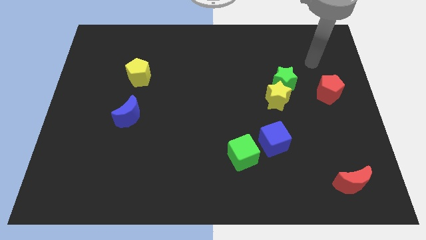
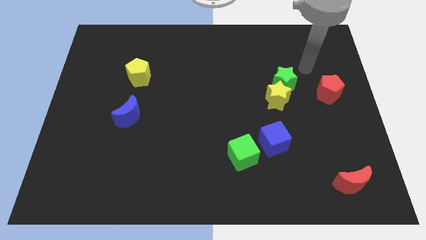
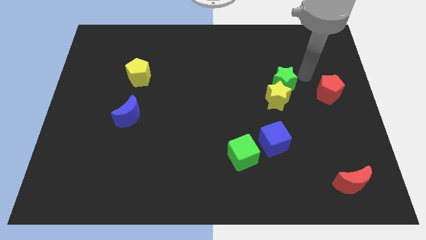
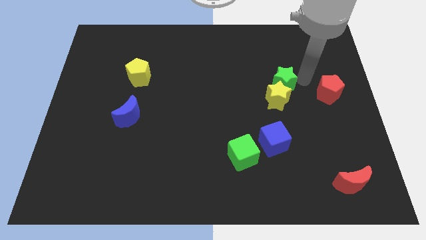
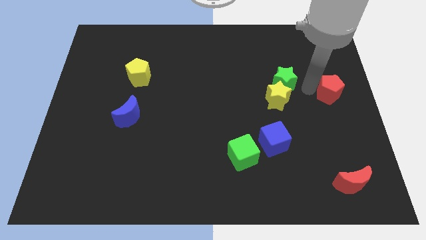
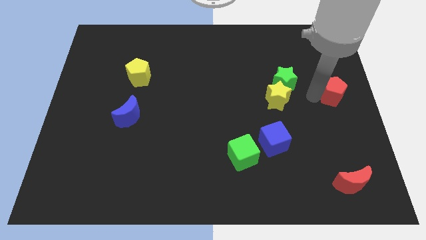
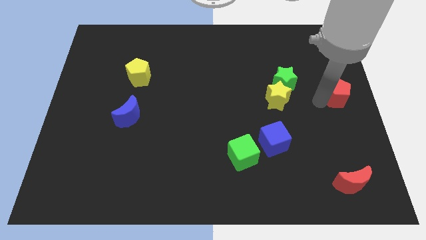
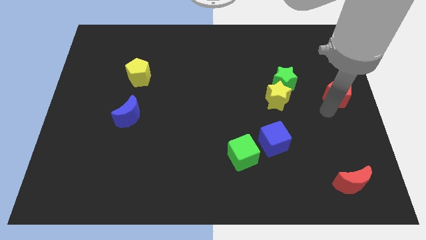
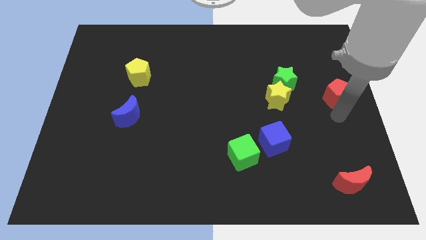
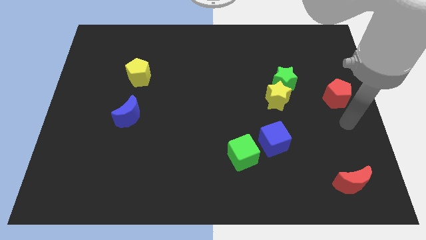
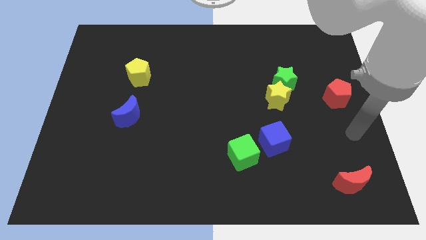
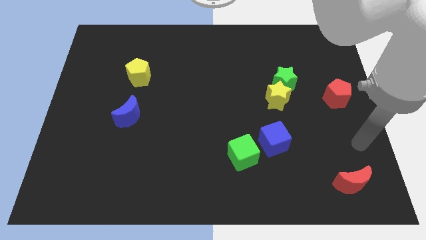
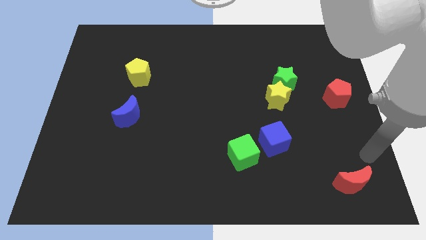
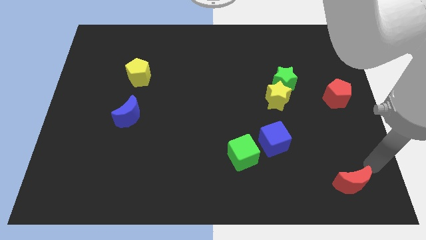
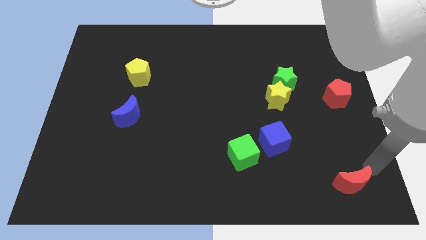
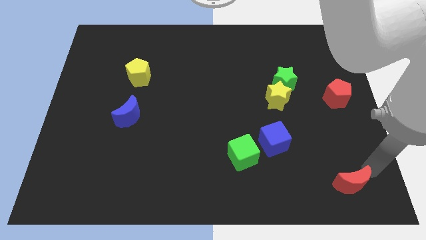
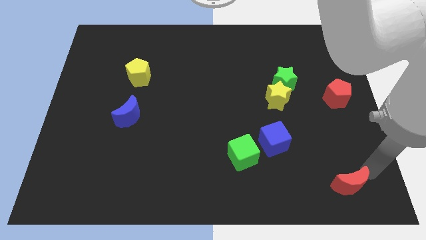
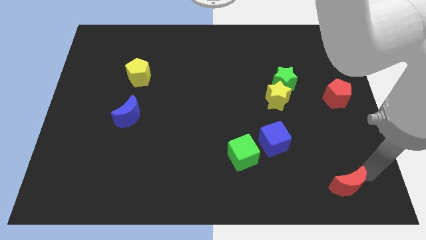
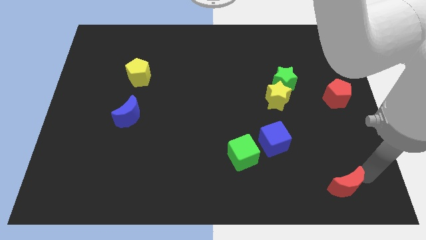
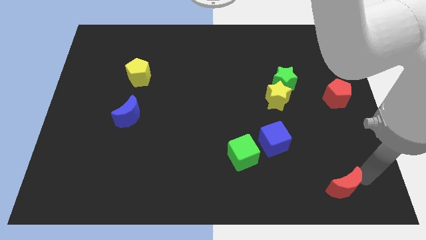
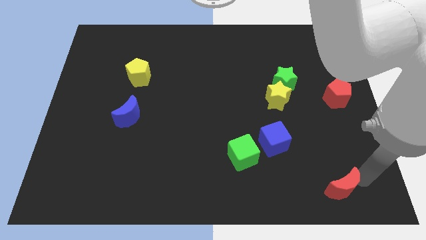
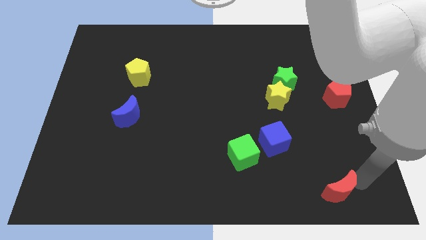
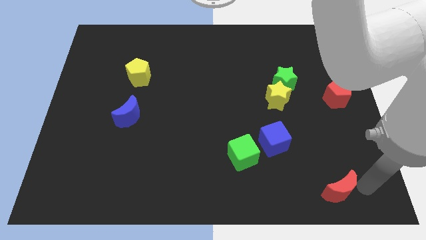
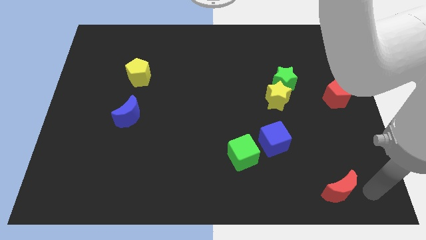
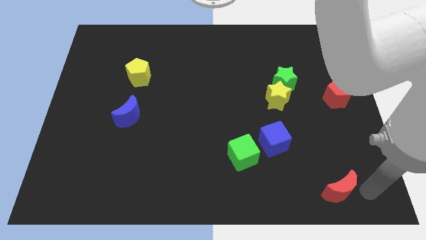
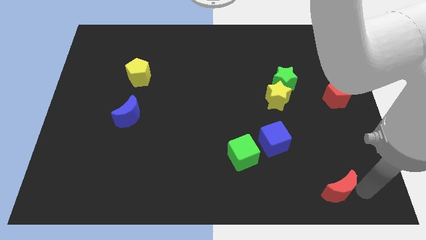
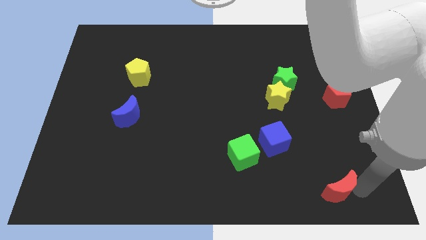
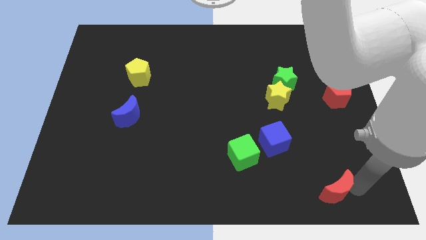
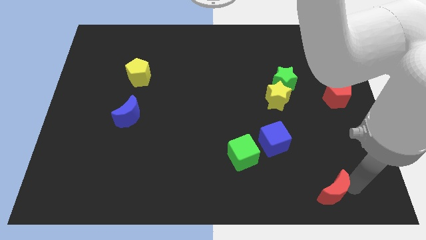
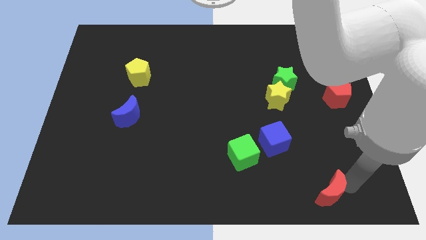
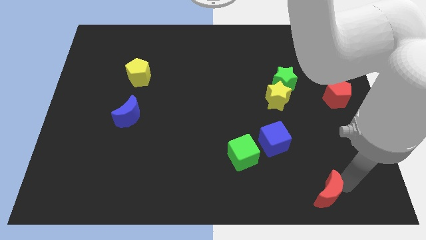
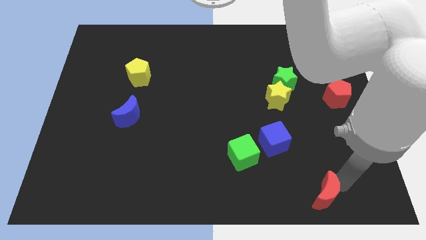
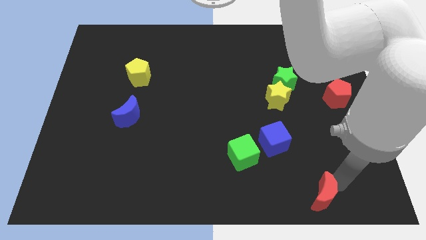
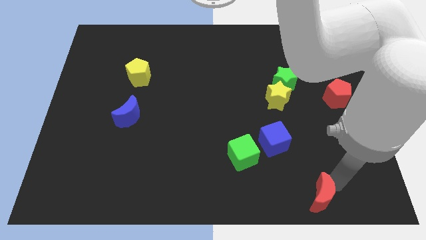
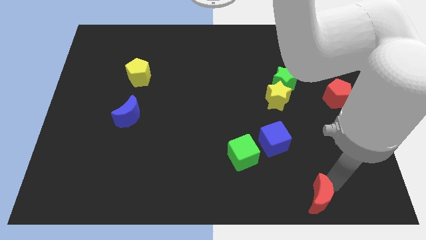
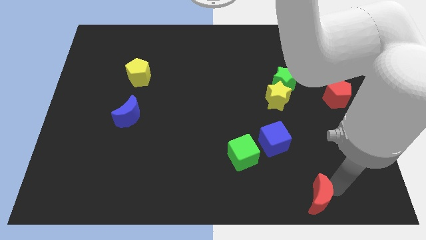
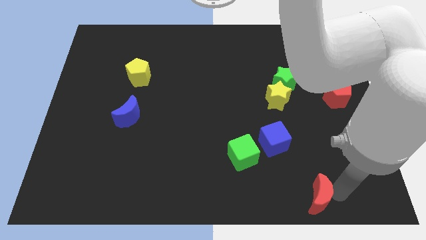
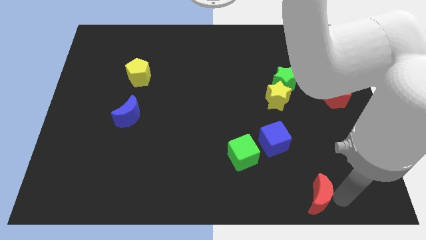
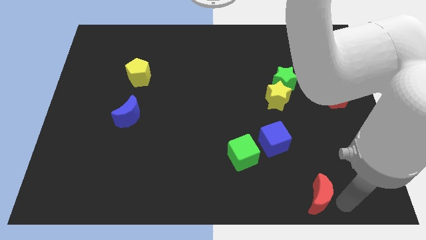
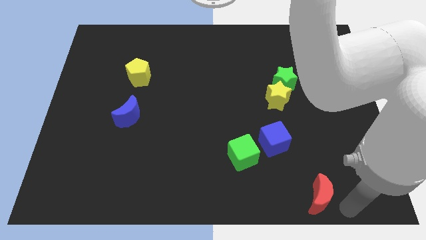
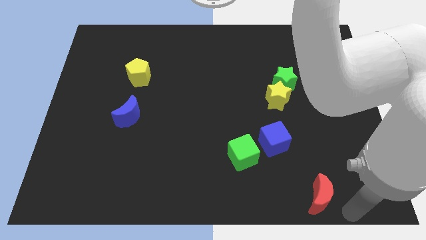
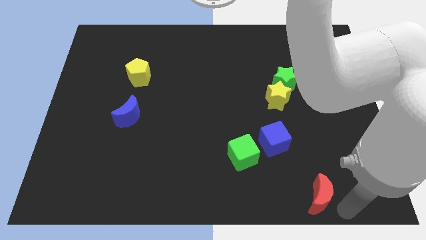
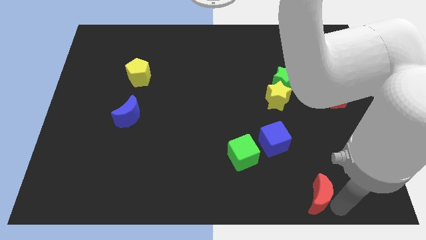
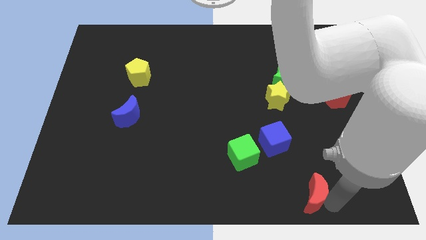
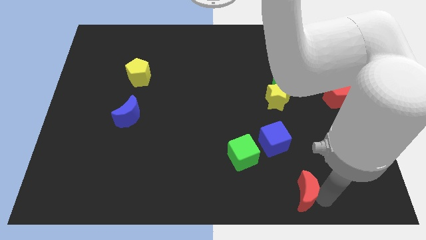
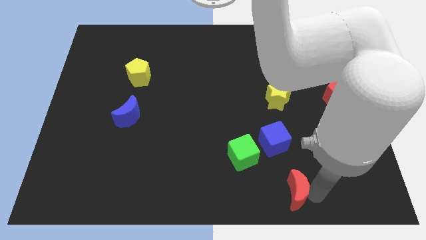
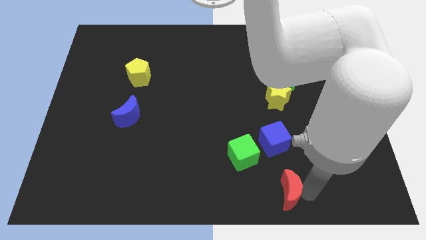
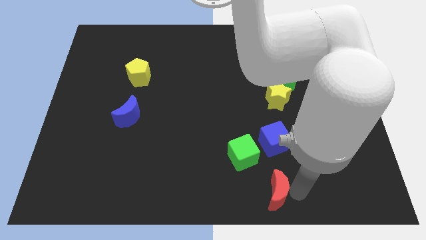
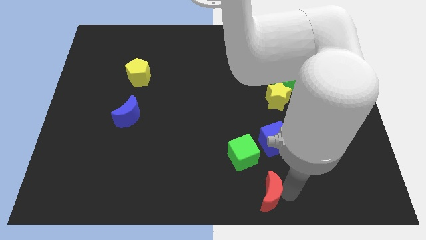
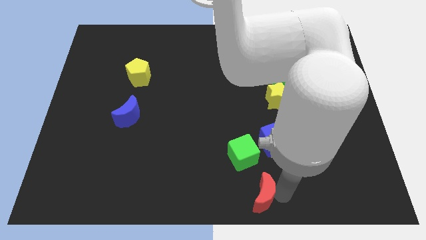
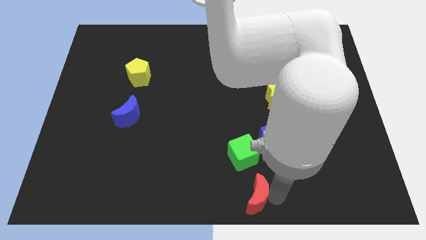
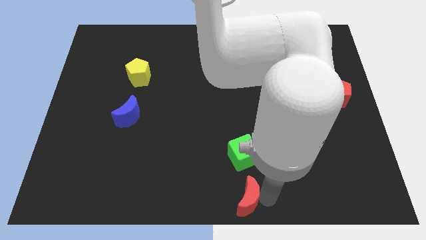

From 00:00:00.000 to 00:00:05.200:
push the red moon left

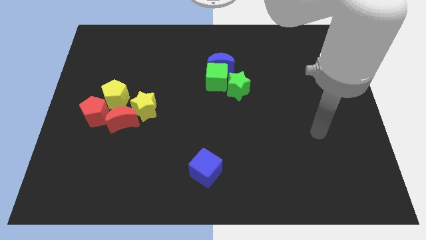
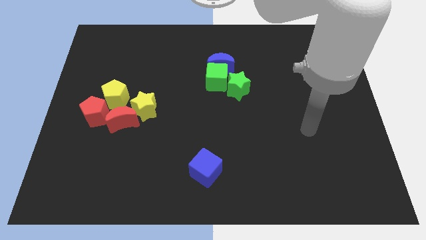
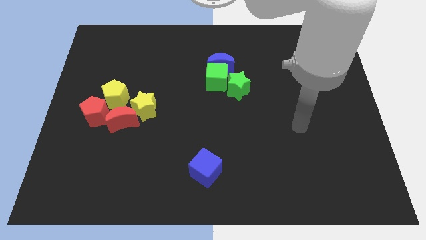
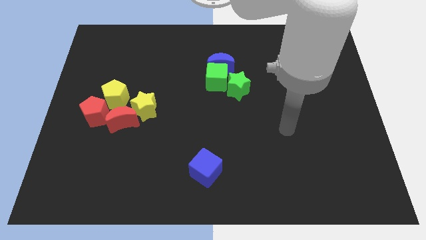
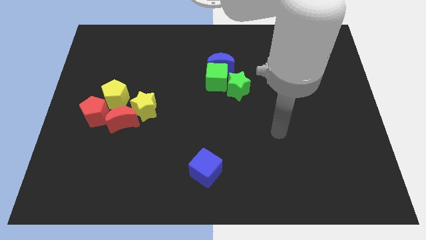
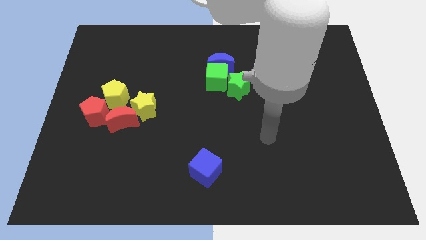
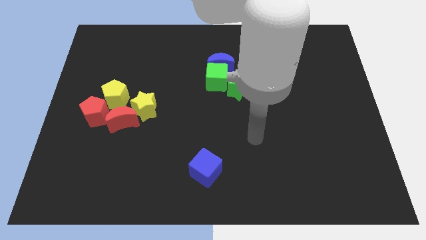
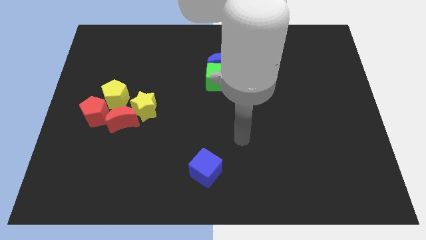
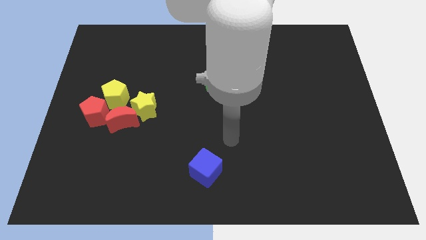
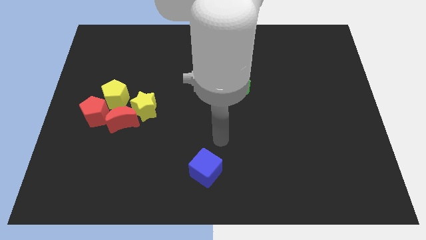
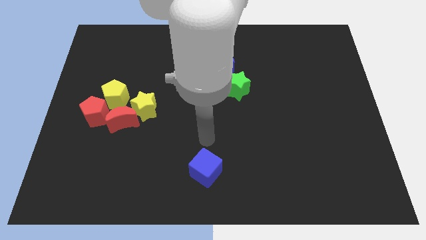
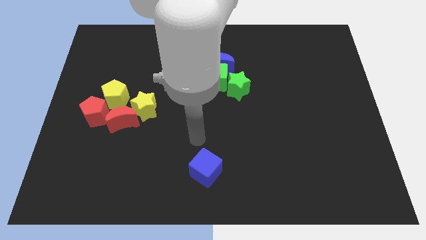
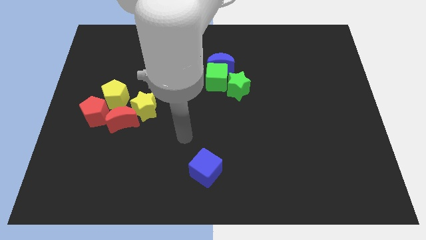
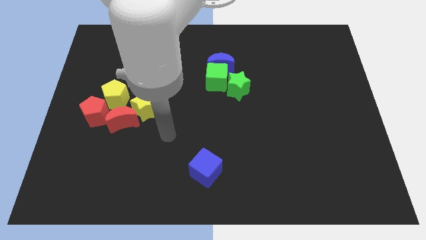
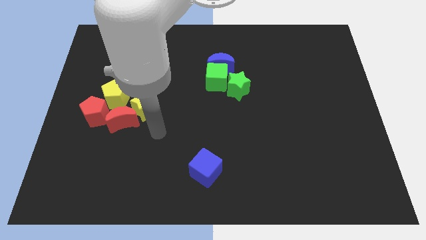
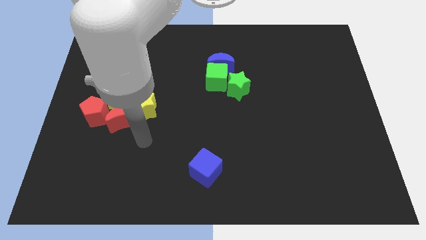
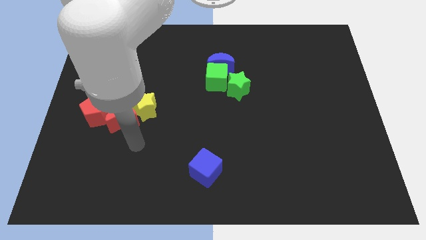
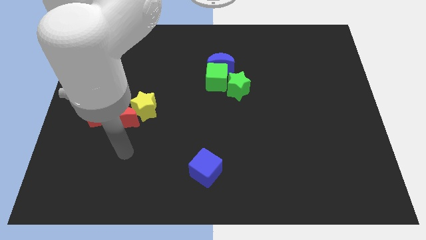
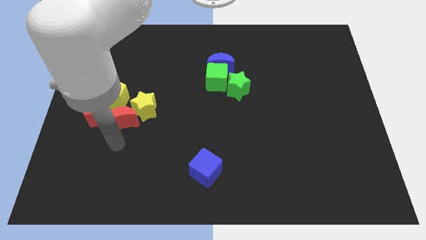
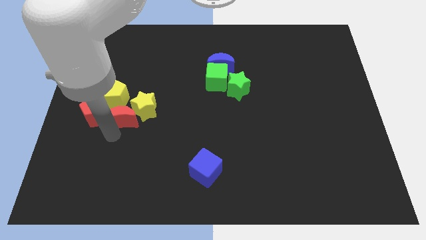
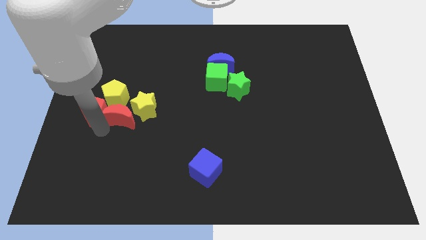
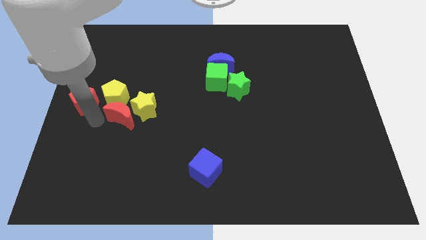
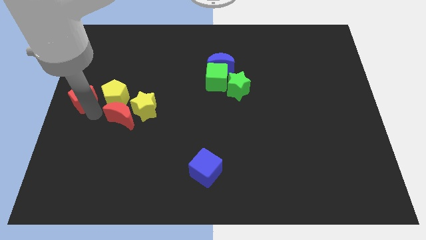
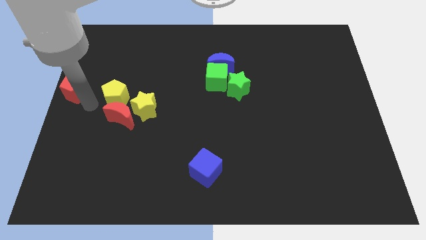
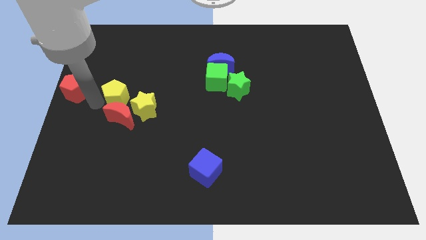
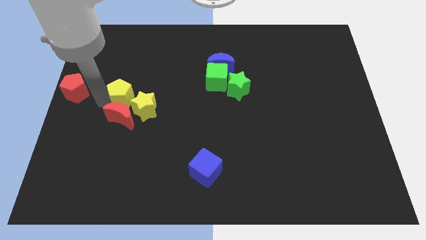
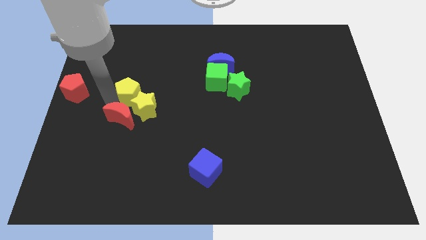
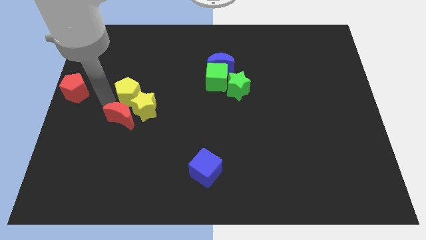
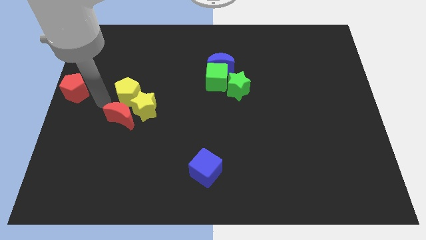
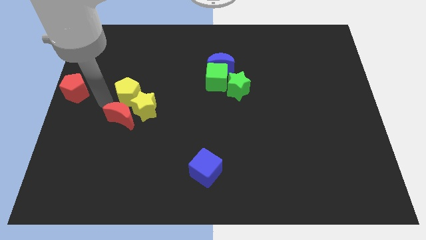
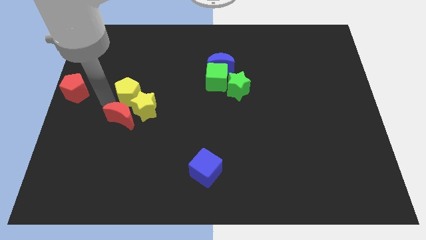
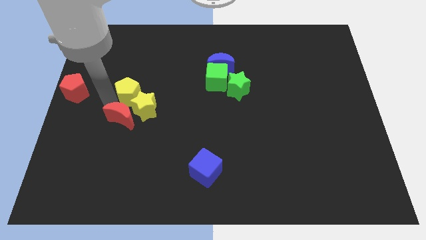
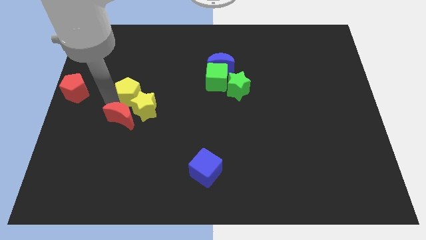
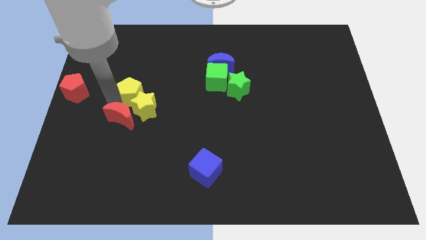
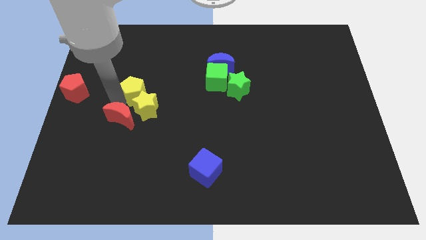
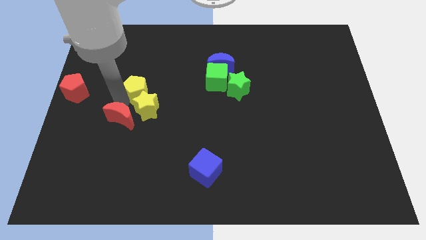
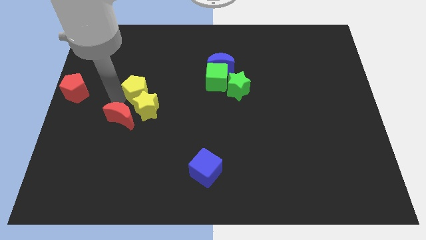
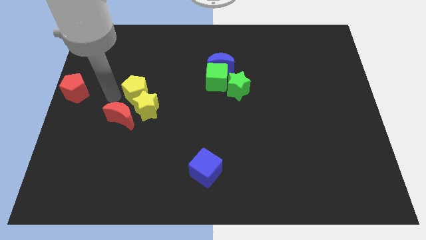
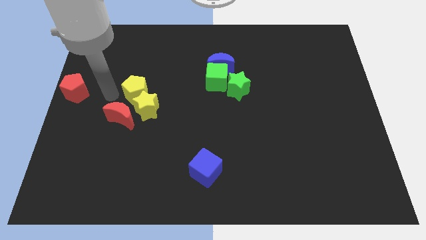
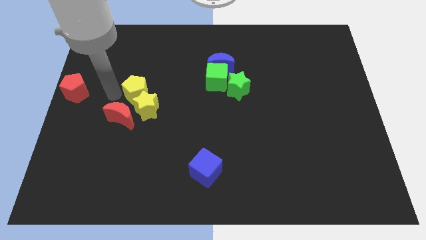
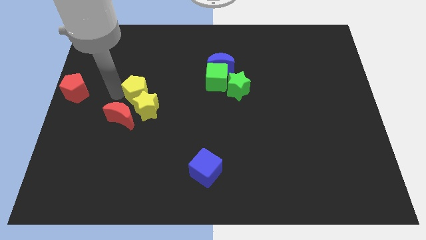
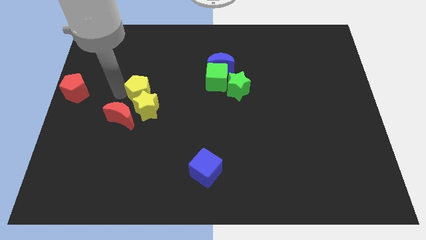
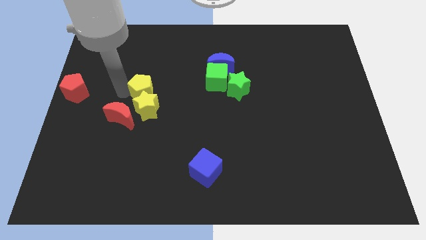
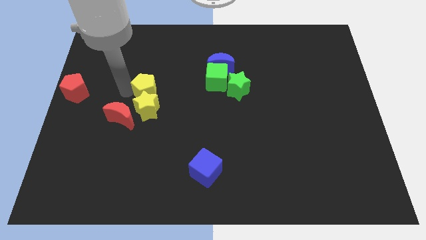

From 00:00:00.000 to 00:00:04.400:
move the yellow pentagon somewhat to the right
